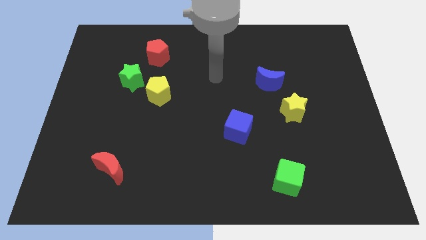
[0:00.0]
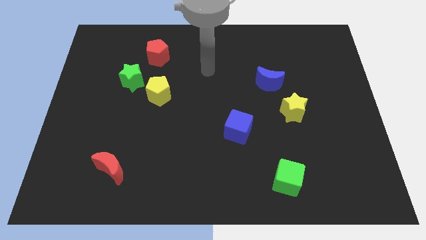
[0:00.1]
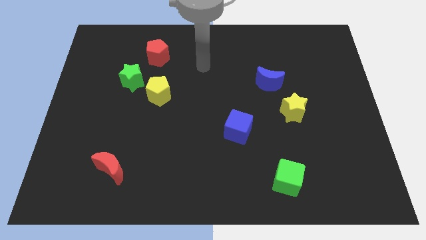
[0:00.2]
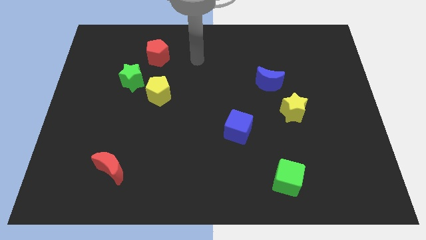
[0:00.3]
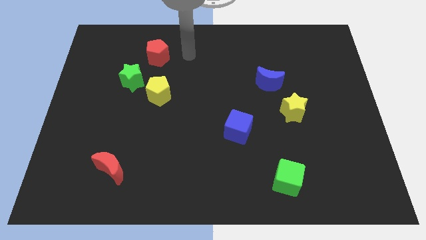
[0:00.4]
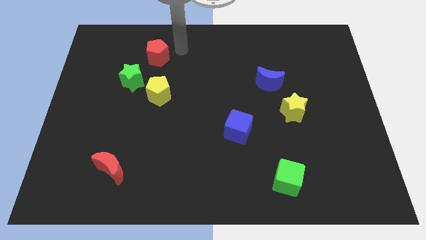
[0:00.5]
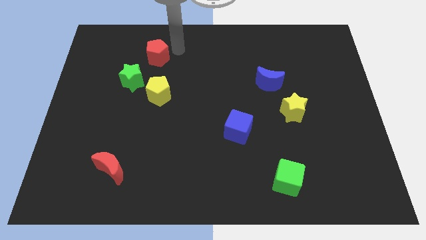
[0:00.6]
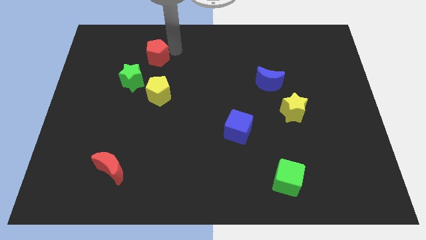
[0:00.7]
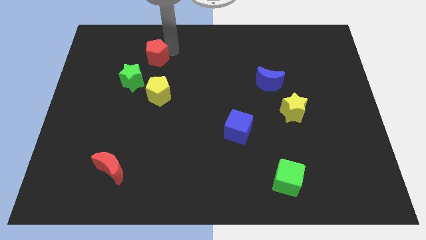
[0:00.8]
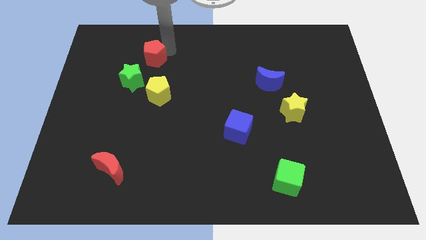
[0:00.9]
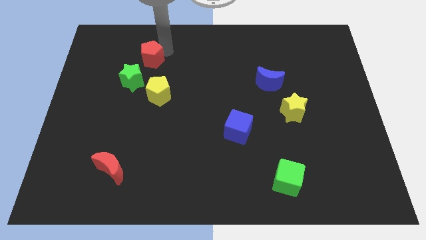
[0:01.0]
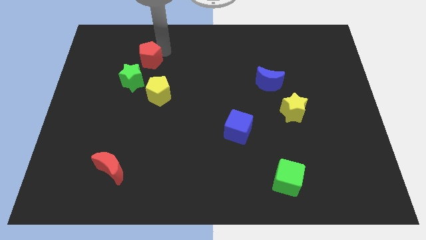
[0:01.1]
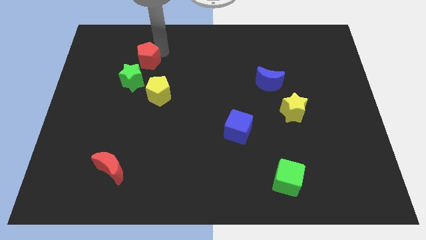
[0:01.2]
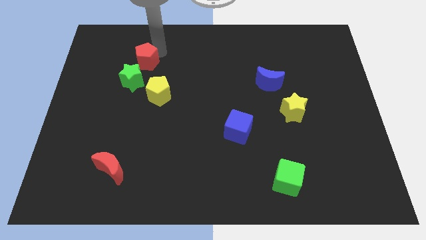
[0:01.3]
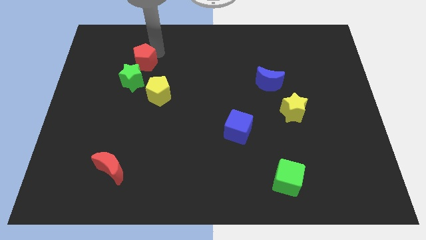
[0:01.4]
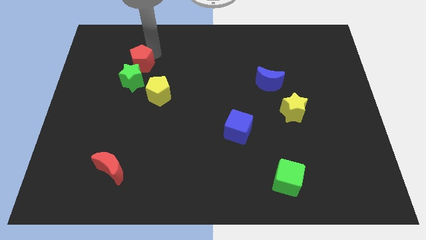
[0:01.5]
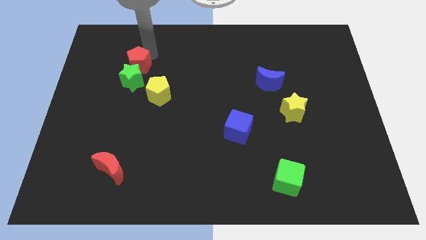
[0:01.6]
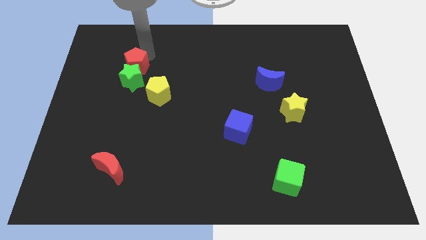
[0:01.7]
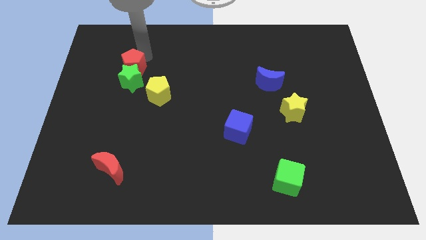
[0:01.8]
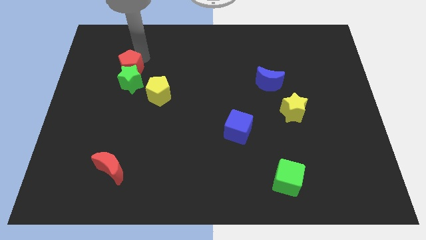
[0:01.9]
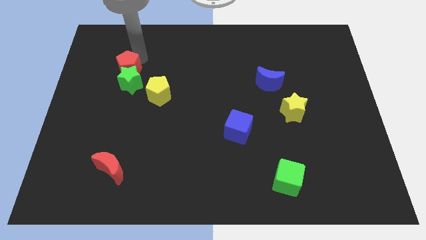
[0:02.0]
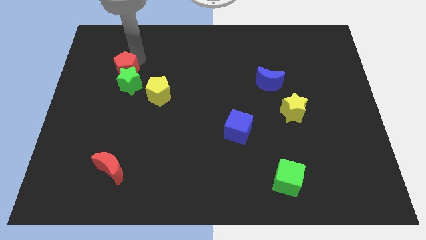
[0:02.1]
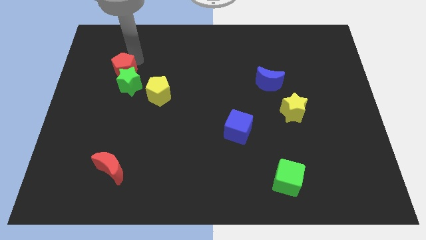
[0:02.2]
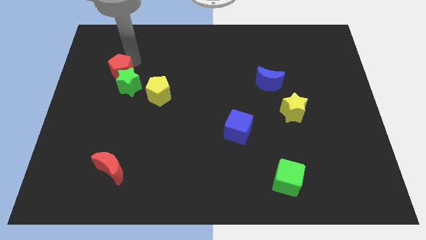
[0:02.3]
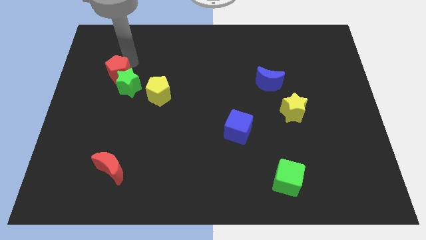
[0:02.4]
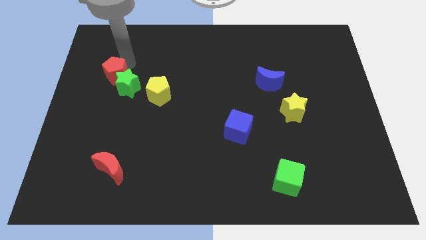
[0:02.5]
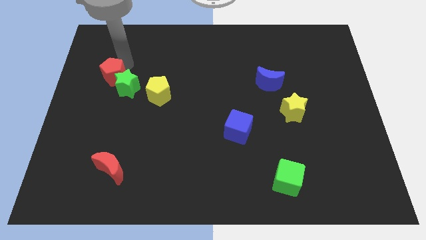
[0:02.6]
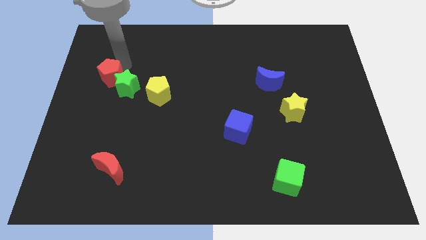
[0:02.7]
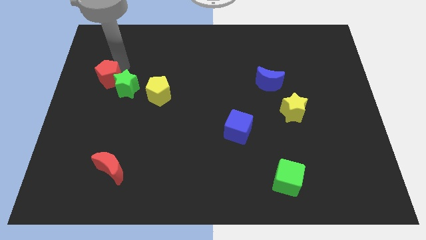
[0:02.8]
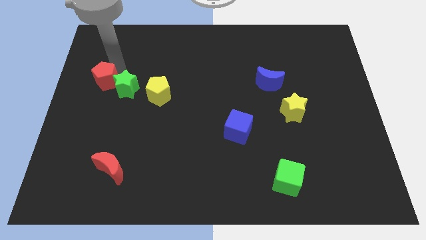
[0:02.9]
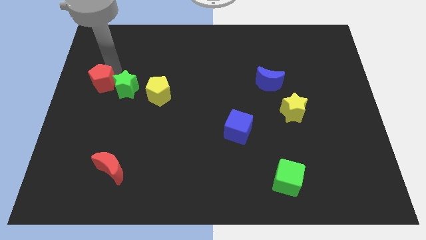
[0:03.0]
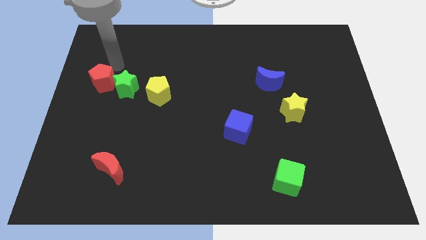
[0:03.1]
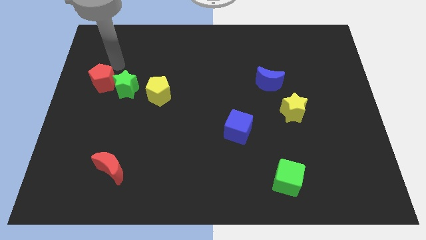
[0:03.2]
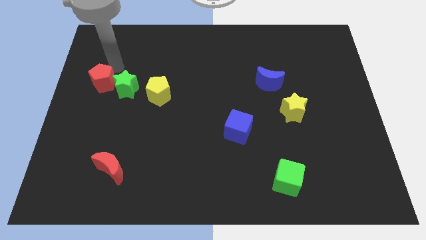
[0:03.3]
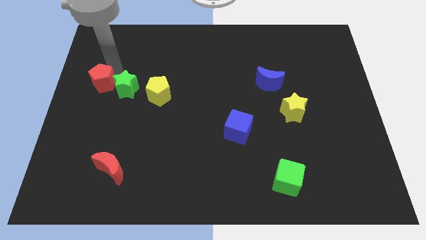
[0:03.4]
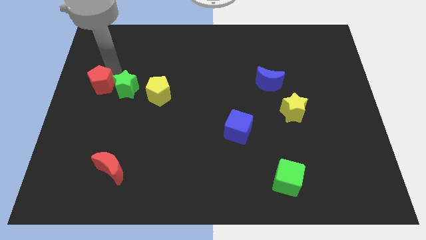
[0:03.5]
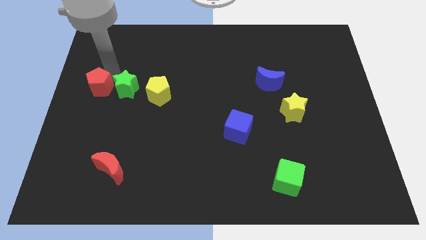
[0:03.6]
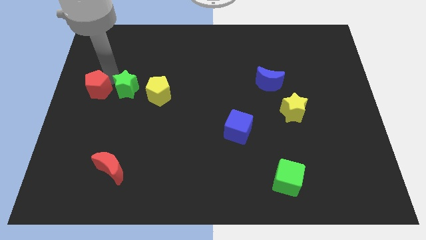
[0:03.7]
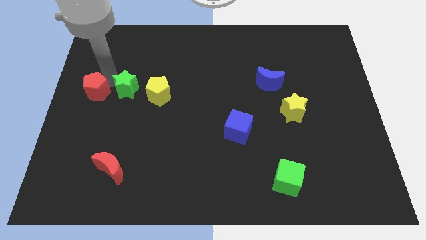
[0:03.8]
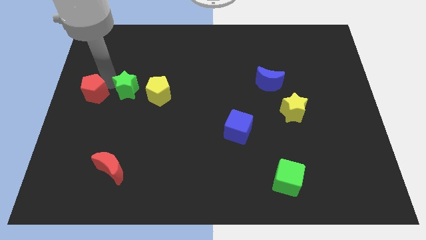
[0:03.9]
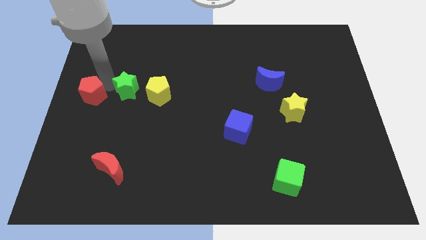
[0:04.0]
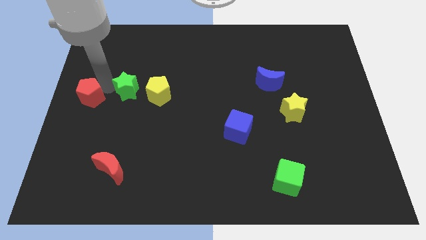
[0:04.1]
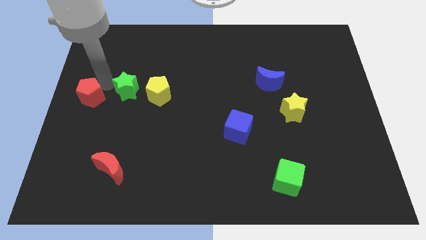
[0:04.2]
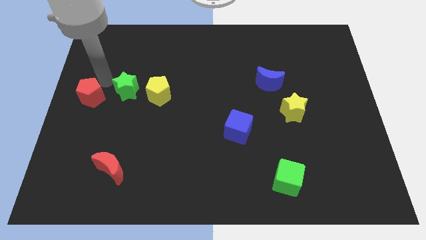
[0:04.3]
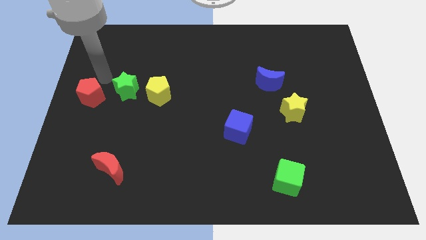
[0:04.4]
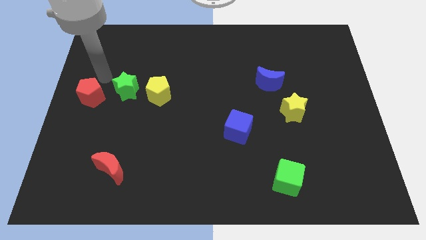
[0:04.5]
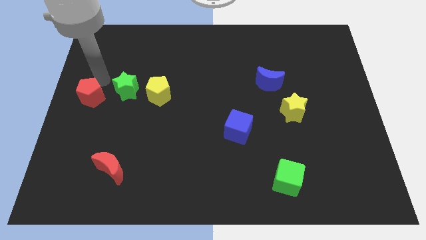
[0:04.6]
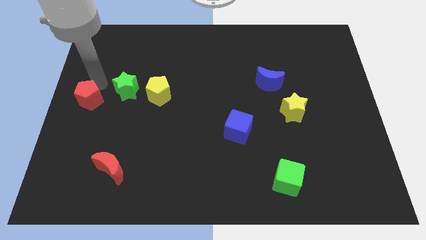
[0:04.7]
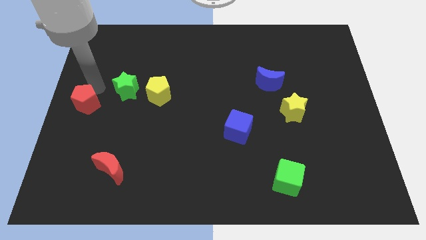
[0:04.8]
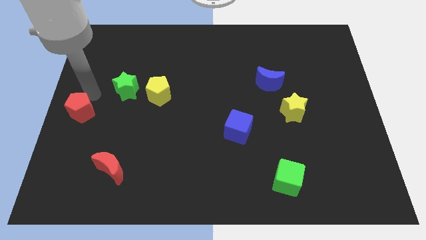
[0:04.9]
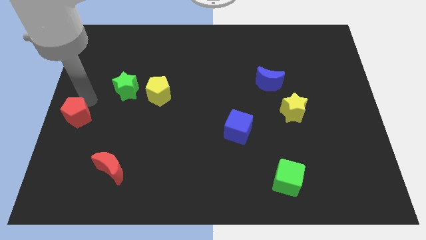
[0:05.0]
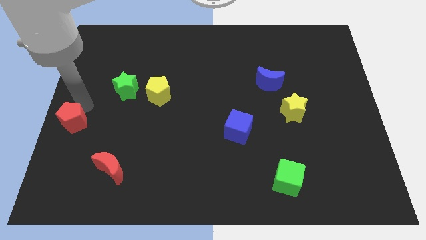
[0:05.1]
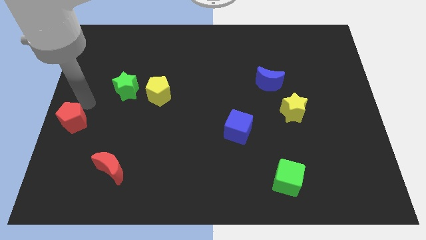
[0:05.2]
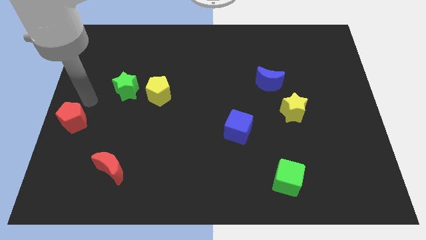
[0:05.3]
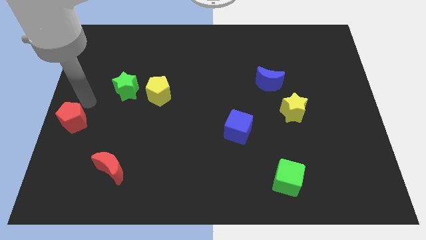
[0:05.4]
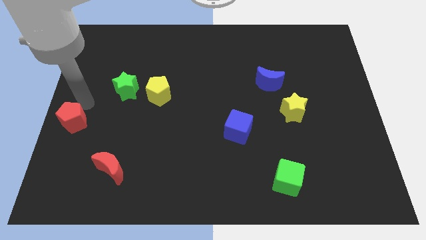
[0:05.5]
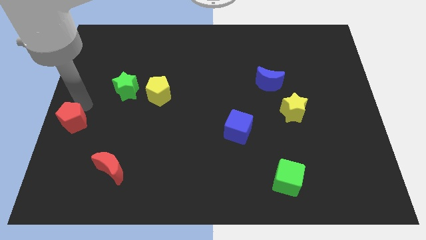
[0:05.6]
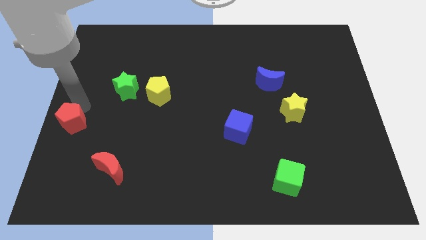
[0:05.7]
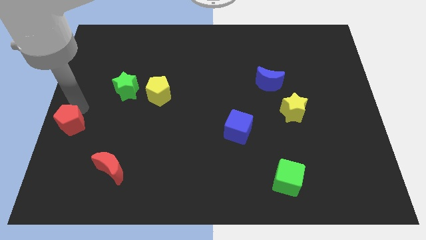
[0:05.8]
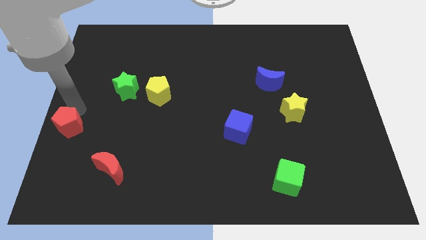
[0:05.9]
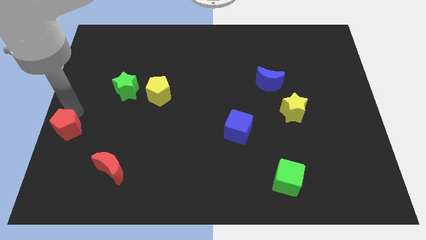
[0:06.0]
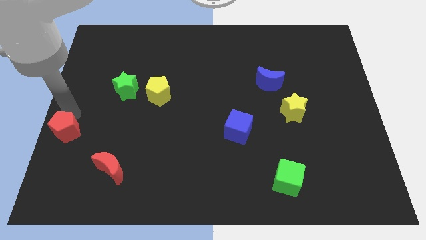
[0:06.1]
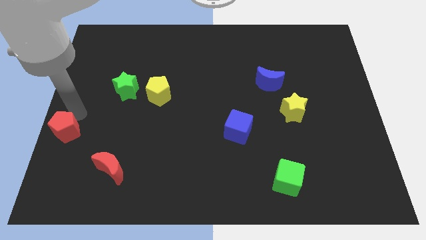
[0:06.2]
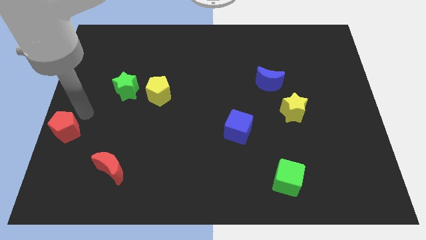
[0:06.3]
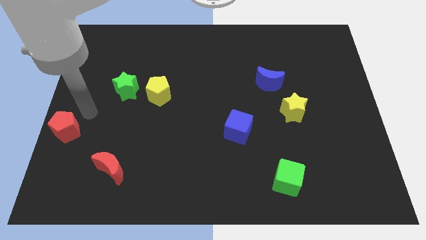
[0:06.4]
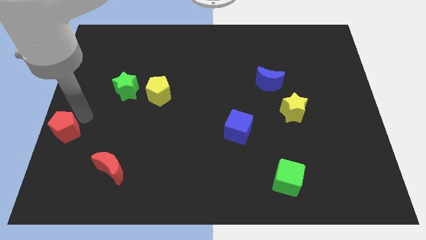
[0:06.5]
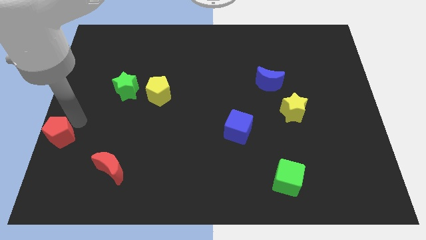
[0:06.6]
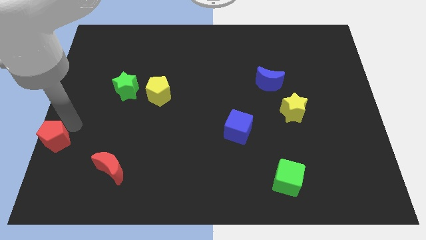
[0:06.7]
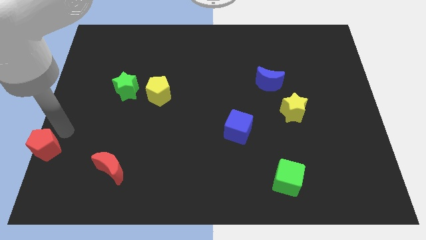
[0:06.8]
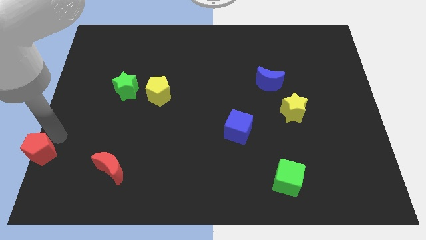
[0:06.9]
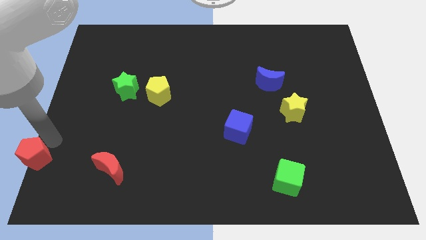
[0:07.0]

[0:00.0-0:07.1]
push the red pentagon to the lower left corner
